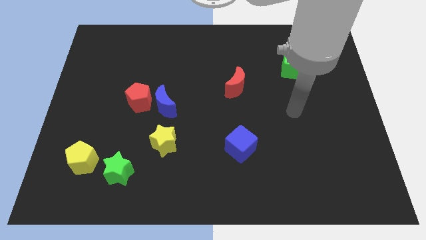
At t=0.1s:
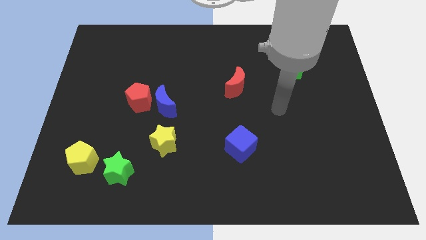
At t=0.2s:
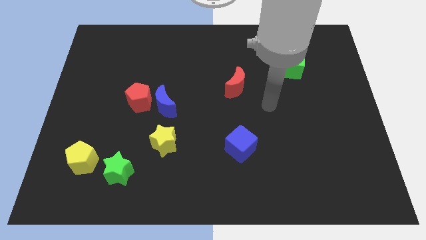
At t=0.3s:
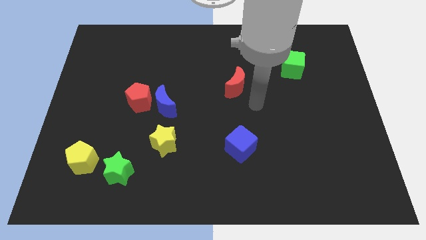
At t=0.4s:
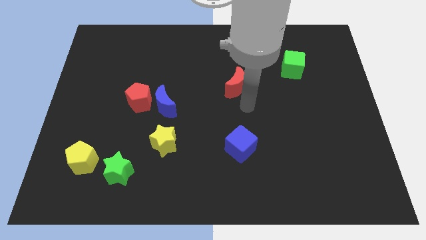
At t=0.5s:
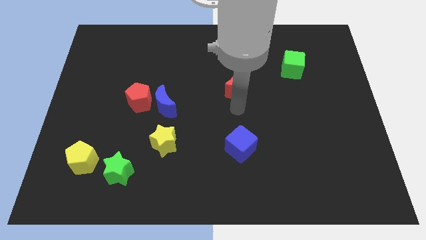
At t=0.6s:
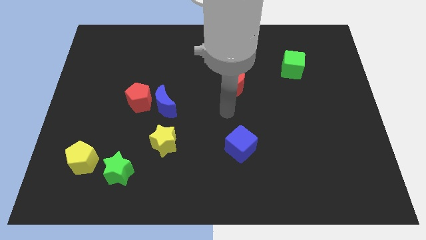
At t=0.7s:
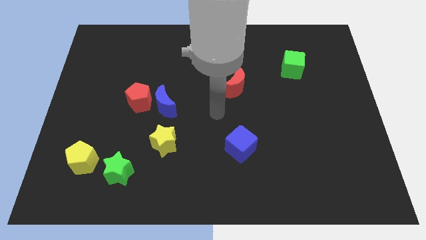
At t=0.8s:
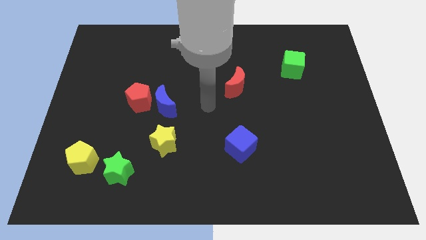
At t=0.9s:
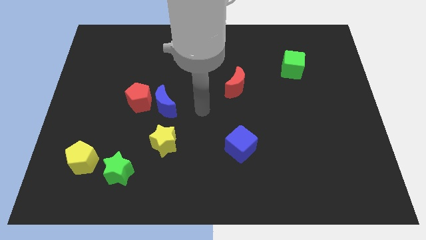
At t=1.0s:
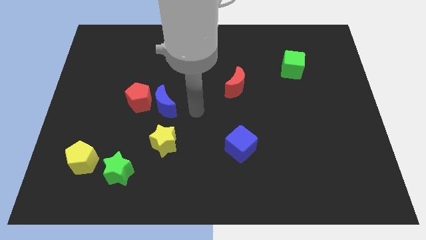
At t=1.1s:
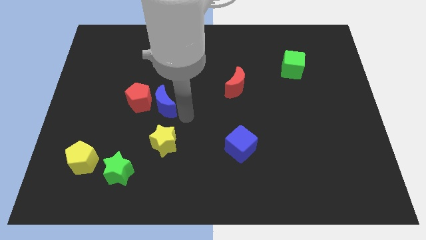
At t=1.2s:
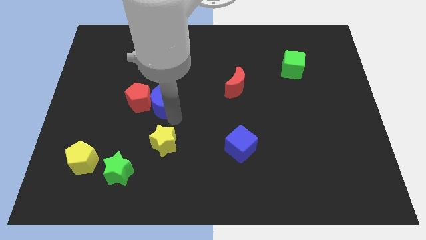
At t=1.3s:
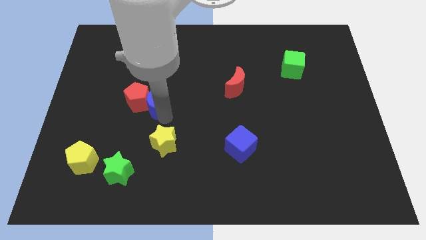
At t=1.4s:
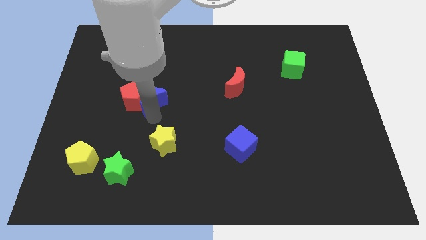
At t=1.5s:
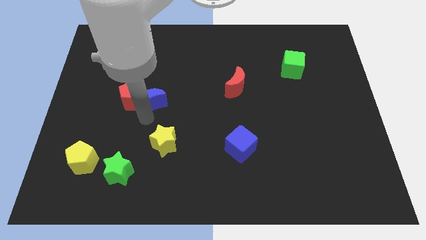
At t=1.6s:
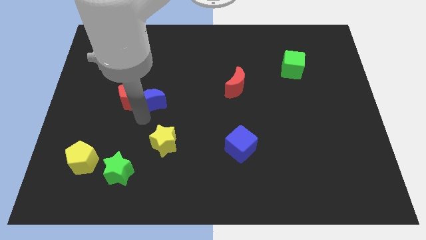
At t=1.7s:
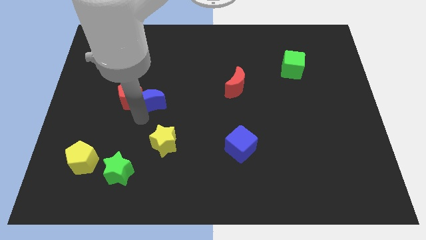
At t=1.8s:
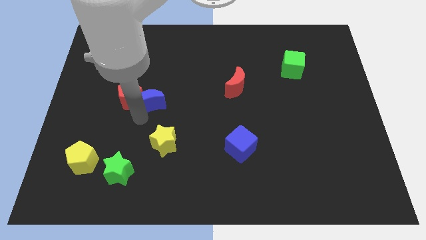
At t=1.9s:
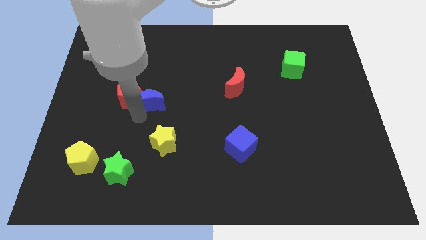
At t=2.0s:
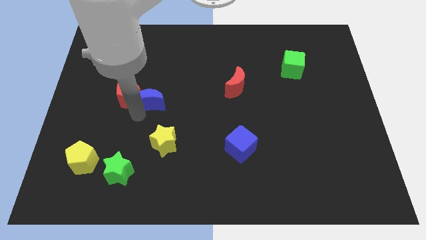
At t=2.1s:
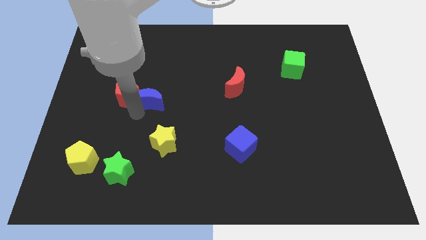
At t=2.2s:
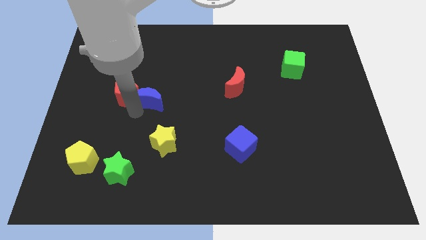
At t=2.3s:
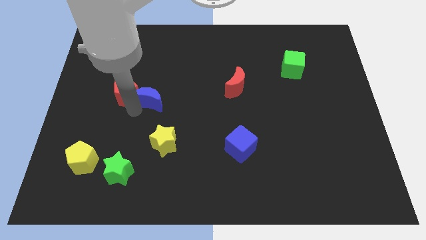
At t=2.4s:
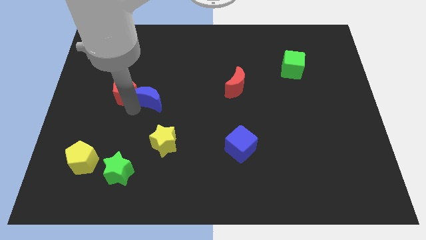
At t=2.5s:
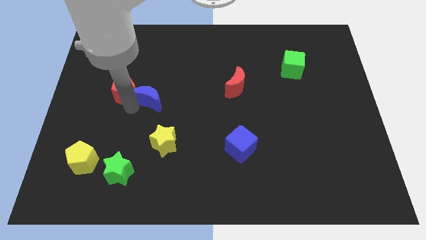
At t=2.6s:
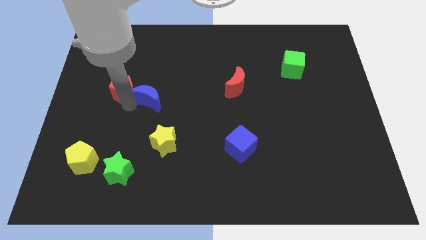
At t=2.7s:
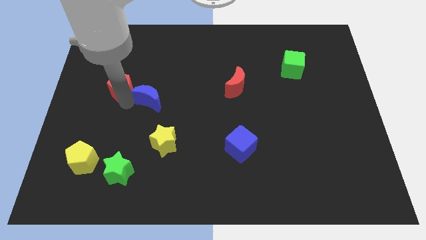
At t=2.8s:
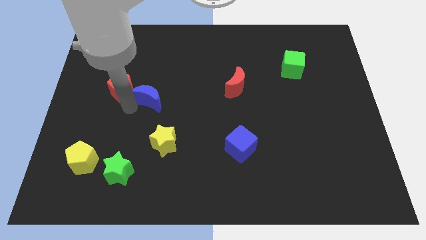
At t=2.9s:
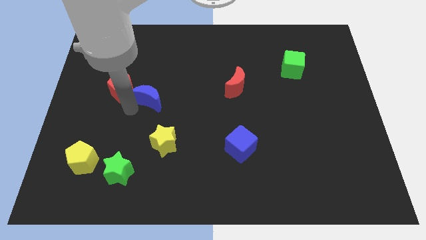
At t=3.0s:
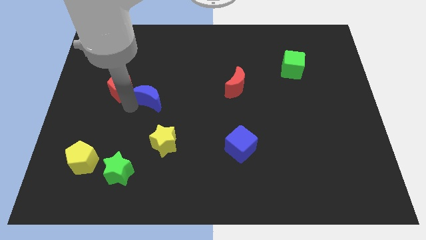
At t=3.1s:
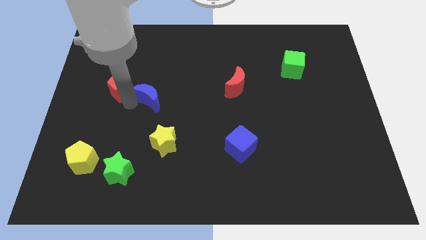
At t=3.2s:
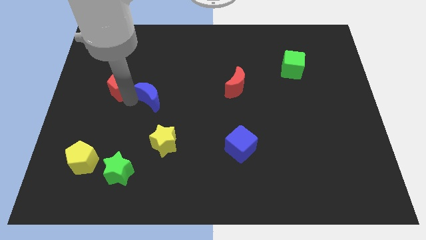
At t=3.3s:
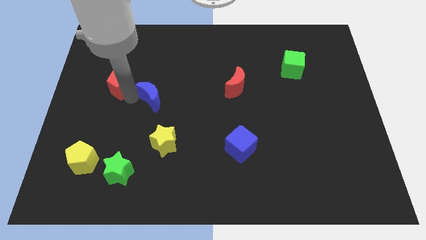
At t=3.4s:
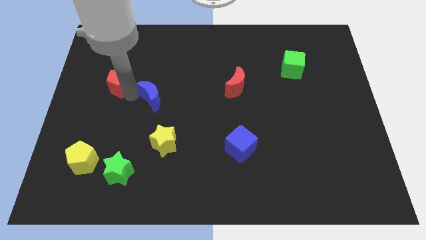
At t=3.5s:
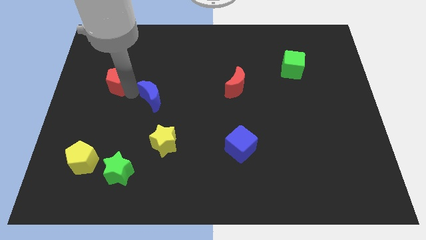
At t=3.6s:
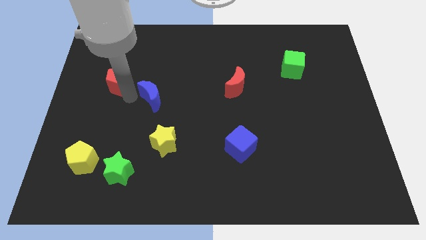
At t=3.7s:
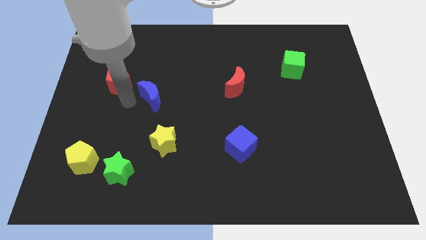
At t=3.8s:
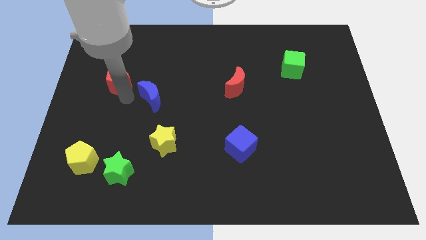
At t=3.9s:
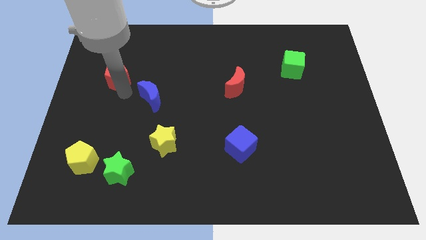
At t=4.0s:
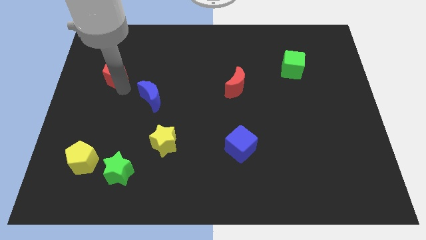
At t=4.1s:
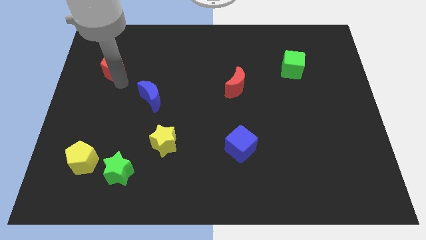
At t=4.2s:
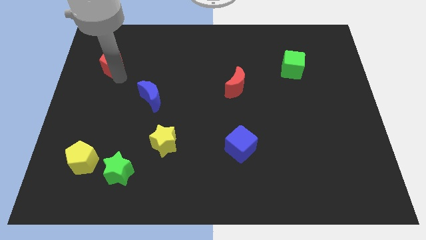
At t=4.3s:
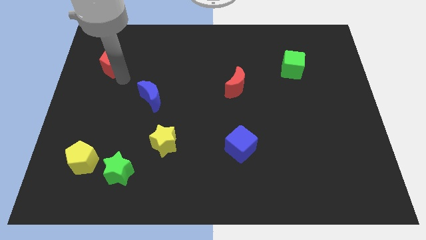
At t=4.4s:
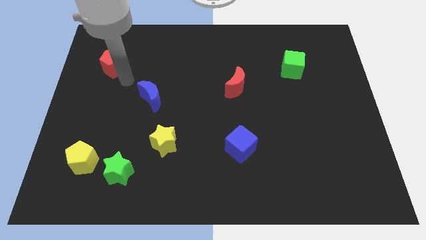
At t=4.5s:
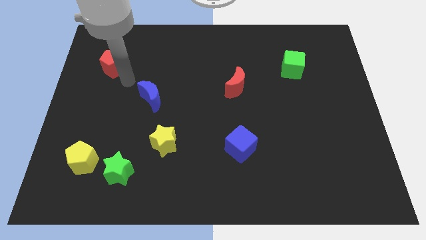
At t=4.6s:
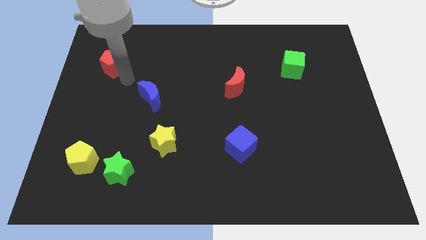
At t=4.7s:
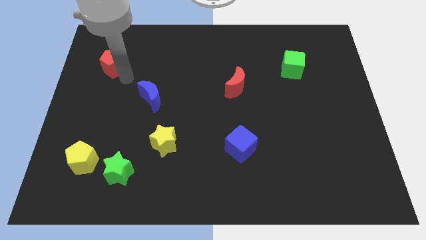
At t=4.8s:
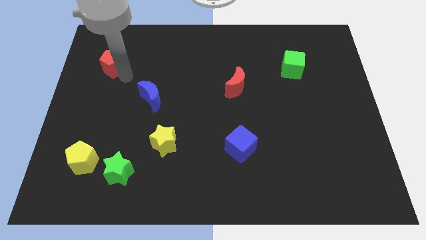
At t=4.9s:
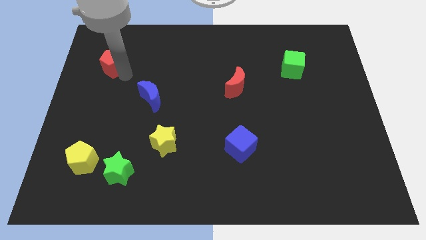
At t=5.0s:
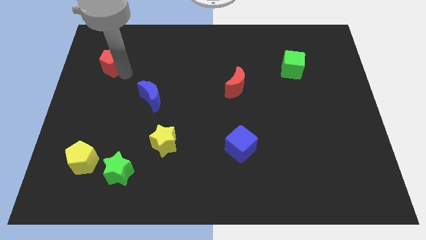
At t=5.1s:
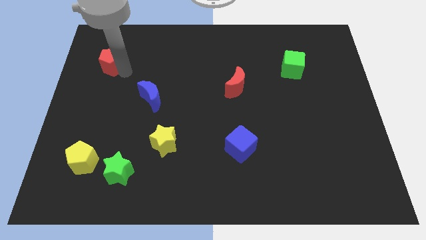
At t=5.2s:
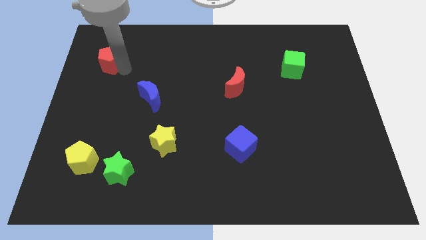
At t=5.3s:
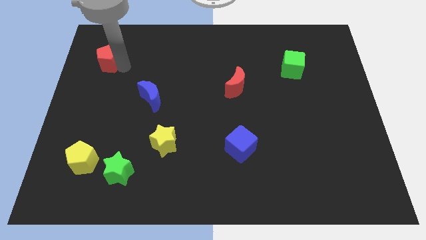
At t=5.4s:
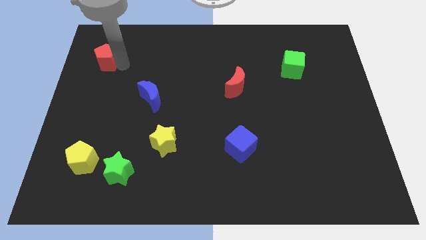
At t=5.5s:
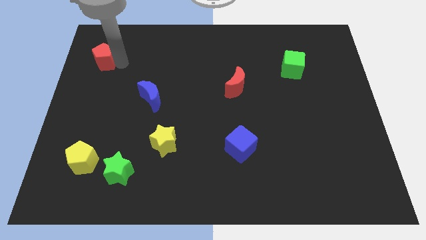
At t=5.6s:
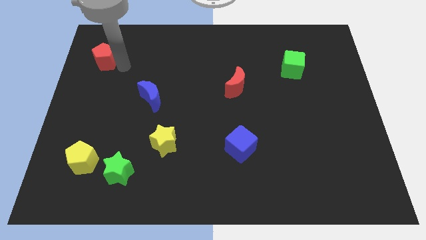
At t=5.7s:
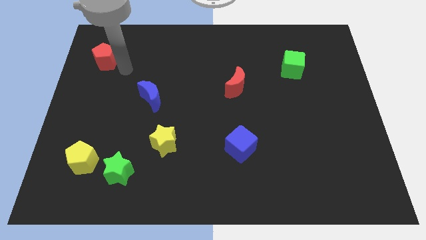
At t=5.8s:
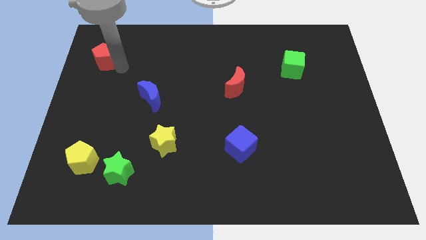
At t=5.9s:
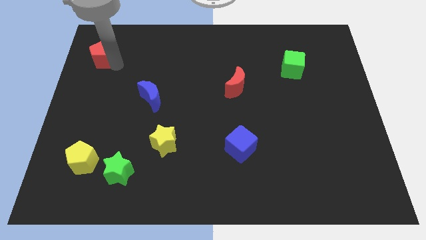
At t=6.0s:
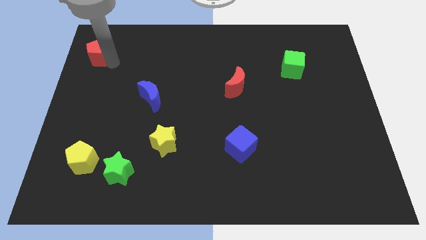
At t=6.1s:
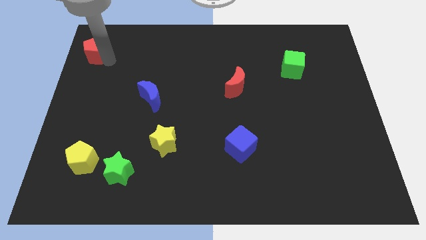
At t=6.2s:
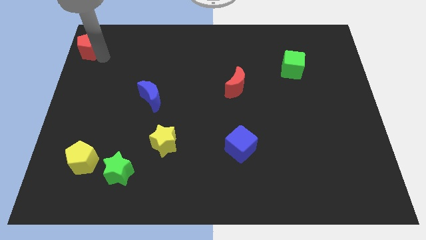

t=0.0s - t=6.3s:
put the red pentagon to the upper left corner
